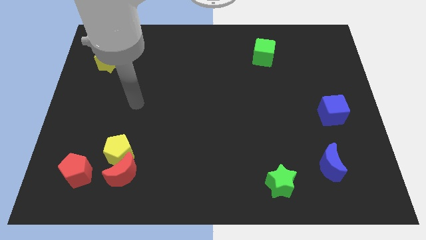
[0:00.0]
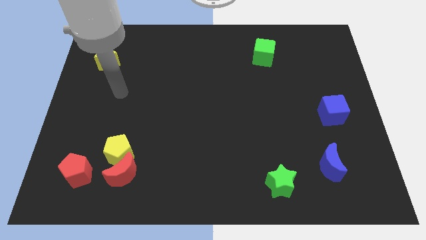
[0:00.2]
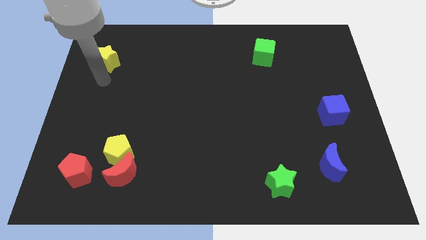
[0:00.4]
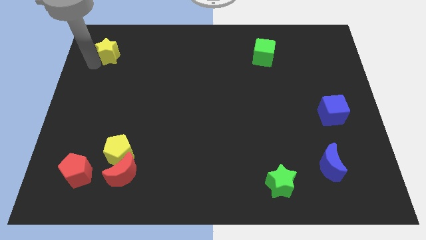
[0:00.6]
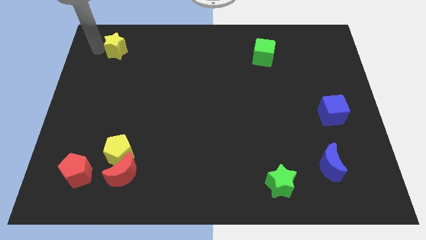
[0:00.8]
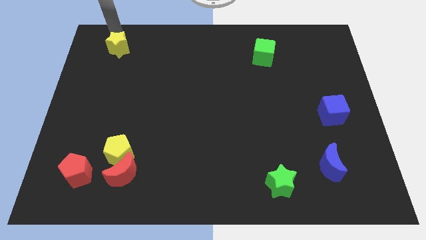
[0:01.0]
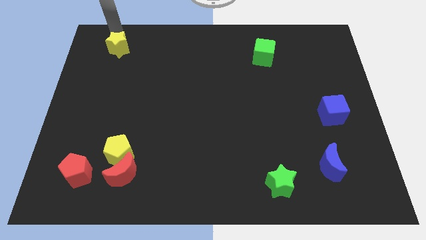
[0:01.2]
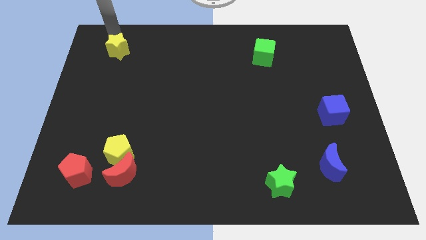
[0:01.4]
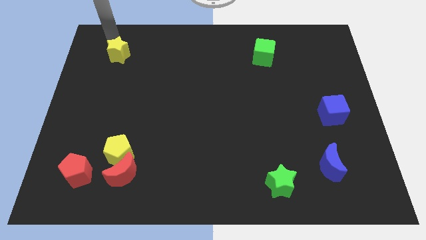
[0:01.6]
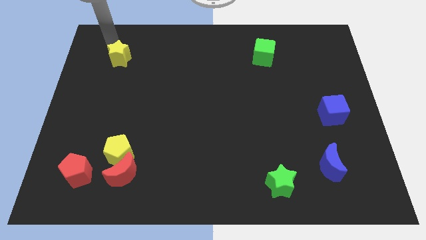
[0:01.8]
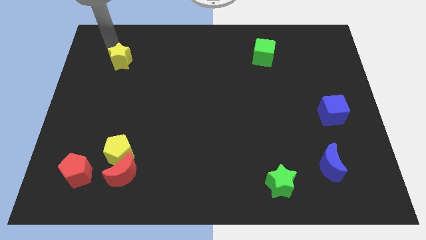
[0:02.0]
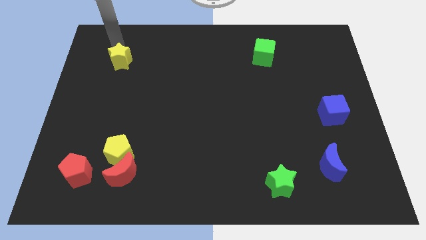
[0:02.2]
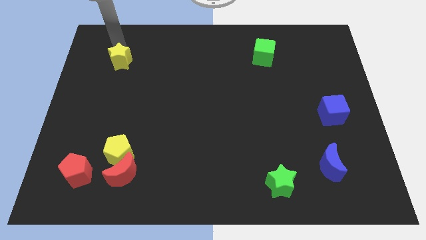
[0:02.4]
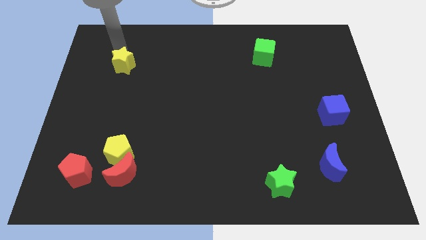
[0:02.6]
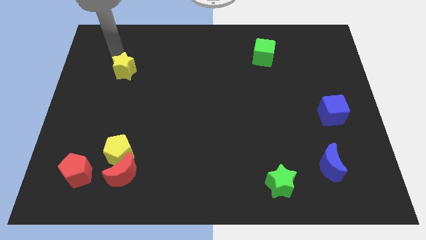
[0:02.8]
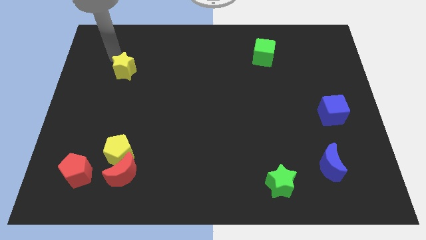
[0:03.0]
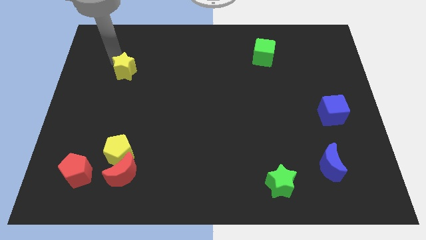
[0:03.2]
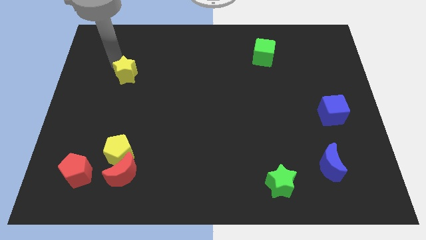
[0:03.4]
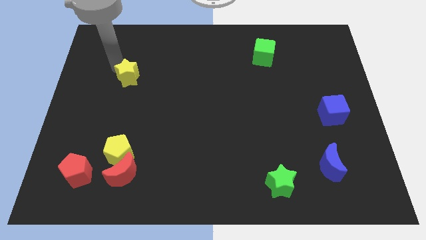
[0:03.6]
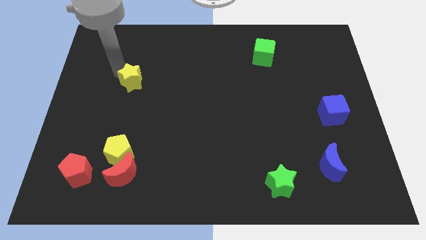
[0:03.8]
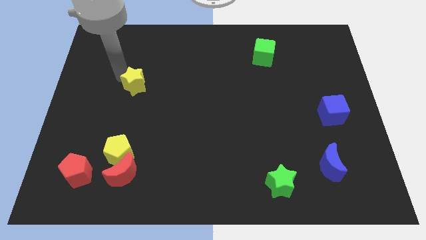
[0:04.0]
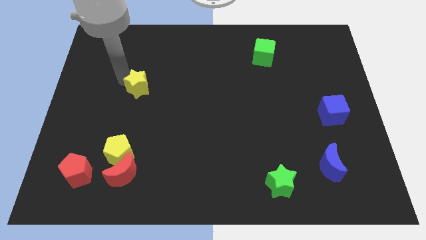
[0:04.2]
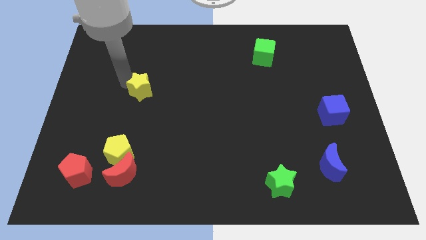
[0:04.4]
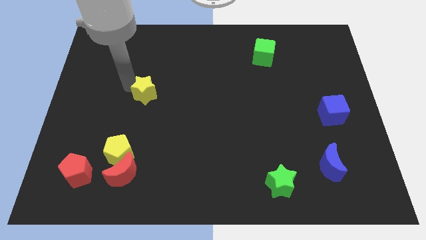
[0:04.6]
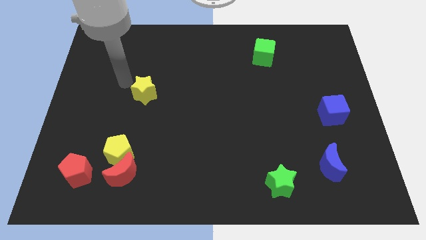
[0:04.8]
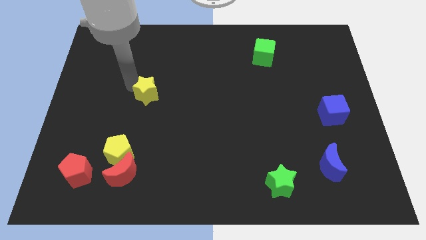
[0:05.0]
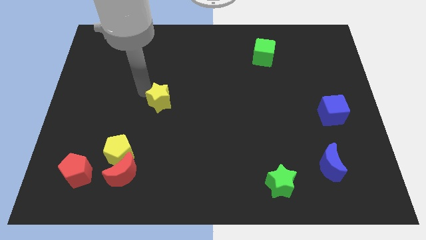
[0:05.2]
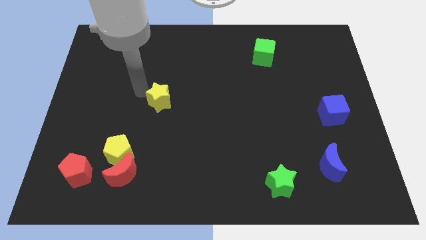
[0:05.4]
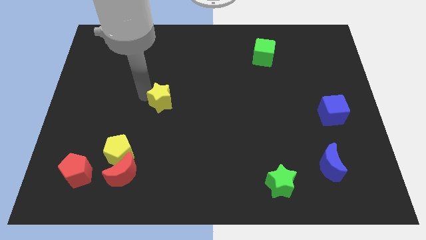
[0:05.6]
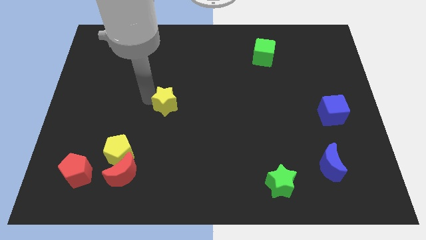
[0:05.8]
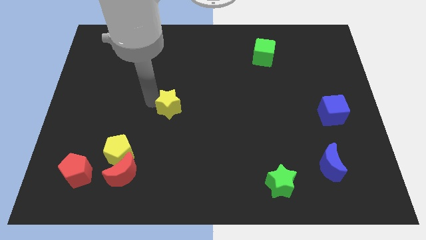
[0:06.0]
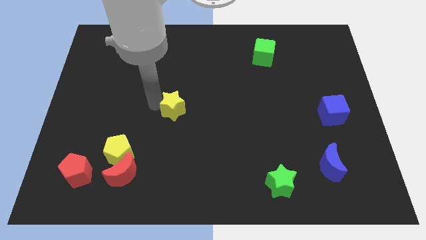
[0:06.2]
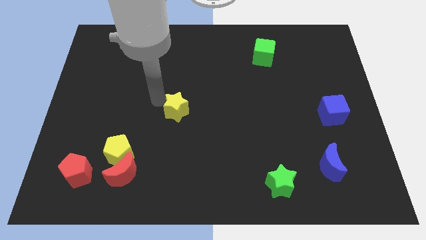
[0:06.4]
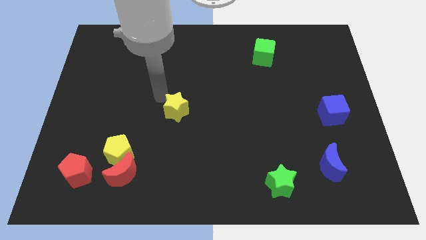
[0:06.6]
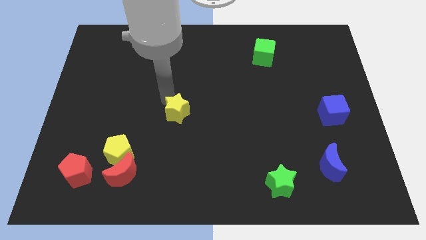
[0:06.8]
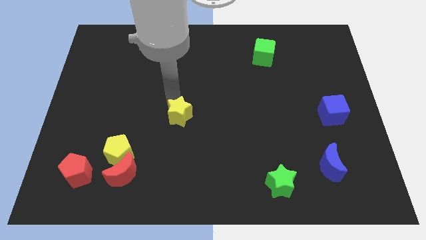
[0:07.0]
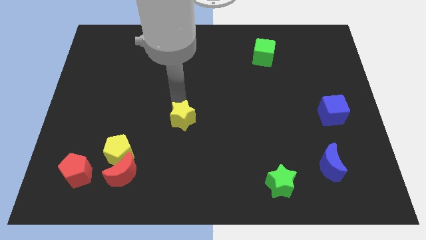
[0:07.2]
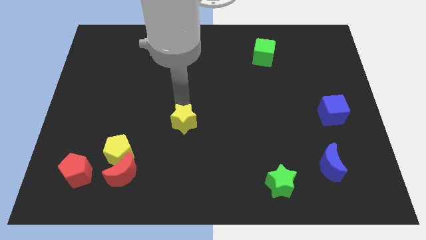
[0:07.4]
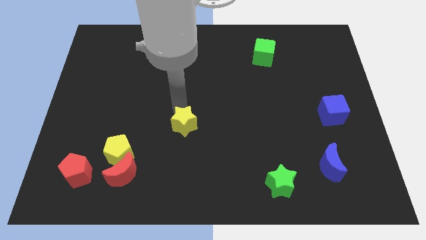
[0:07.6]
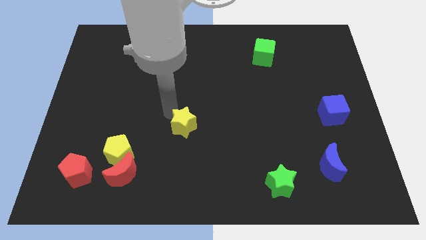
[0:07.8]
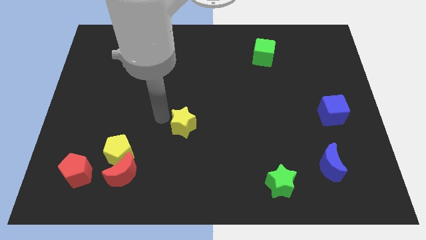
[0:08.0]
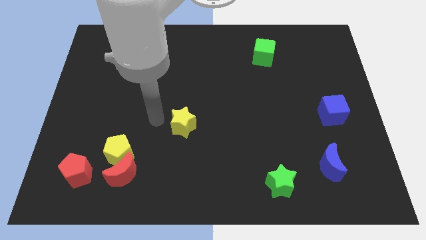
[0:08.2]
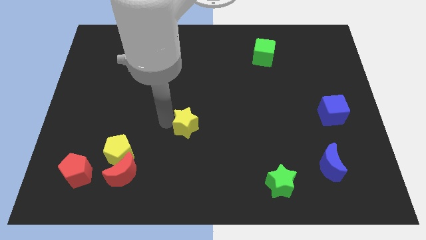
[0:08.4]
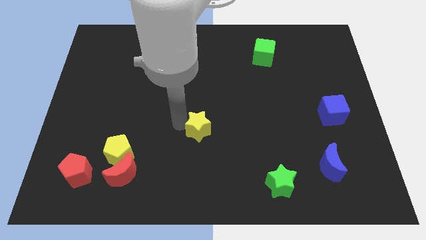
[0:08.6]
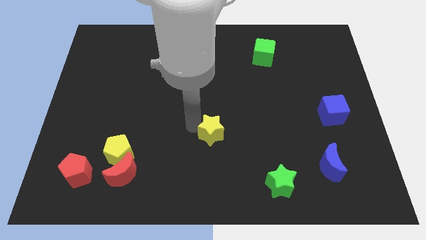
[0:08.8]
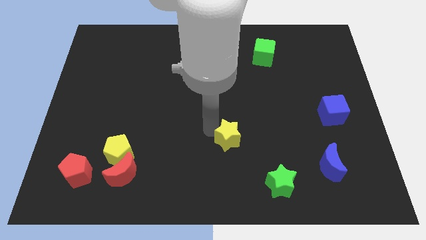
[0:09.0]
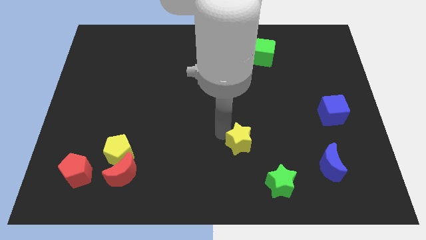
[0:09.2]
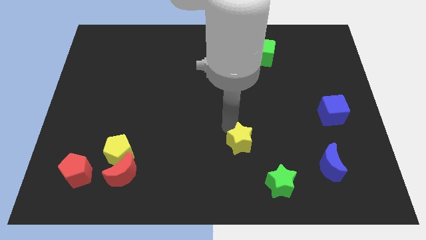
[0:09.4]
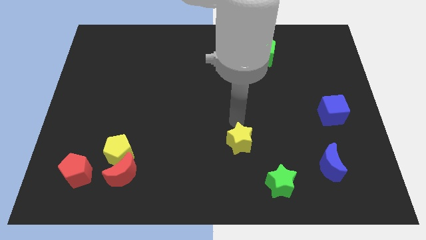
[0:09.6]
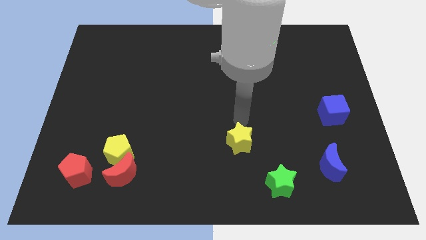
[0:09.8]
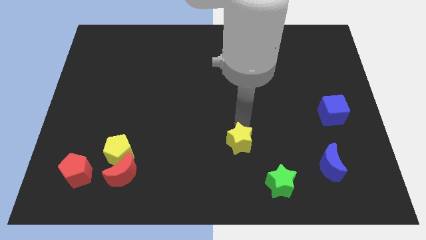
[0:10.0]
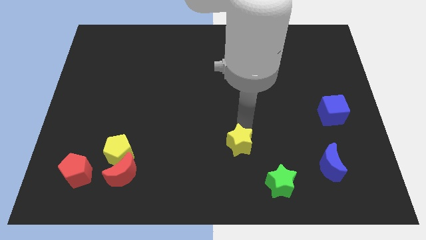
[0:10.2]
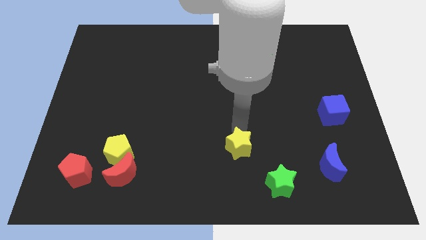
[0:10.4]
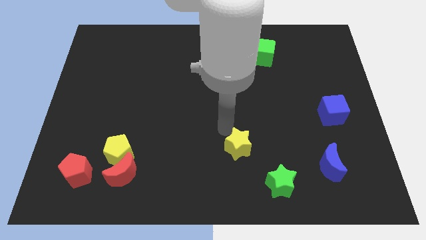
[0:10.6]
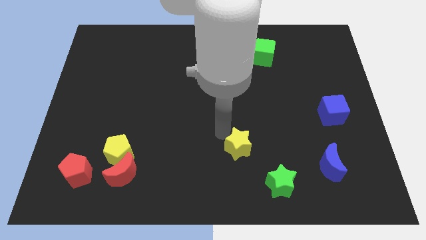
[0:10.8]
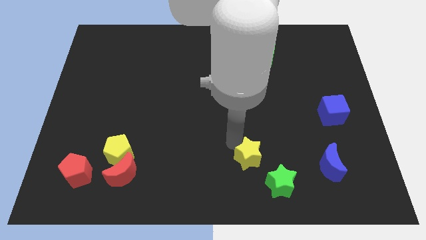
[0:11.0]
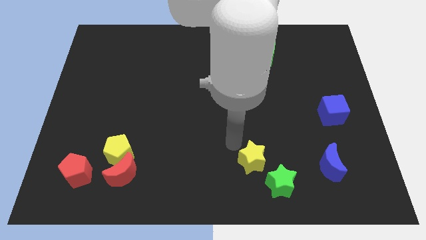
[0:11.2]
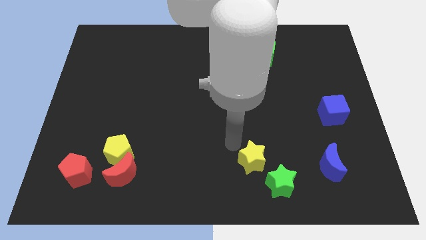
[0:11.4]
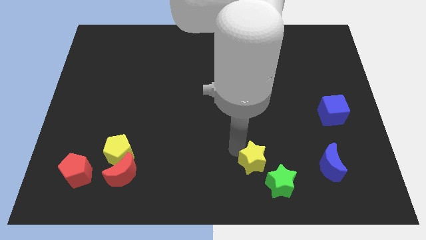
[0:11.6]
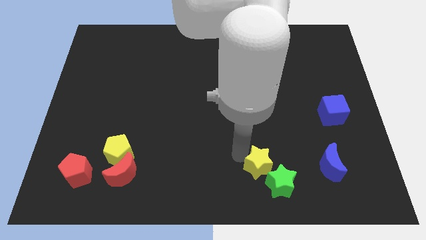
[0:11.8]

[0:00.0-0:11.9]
slide the yellow star next to the green star

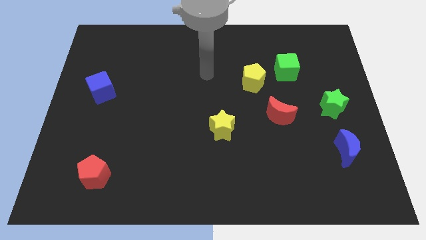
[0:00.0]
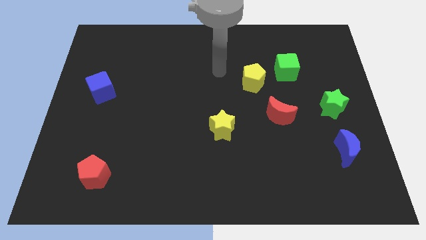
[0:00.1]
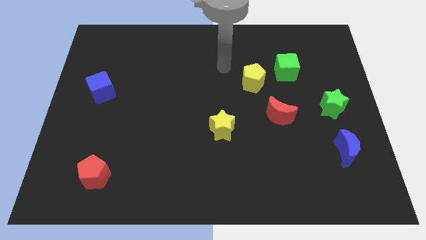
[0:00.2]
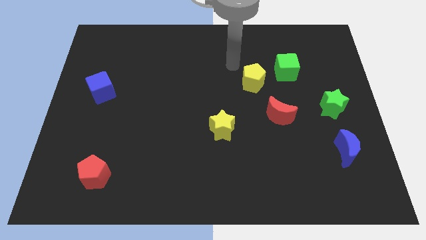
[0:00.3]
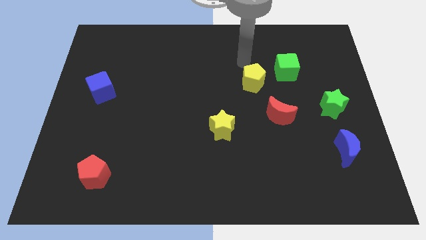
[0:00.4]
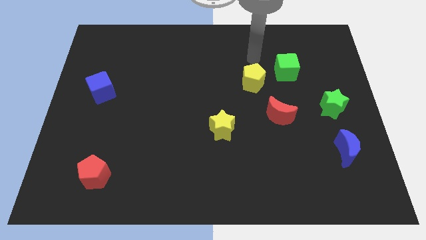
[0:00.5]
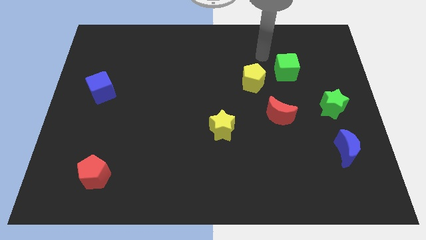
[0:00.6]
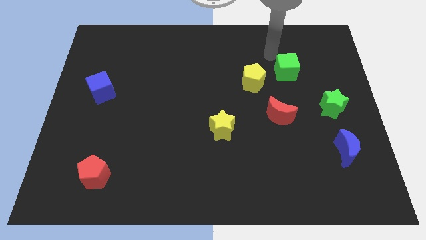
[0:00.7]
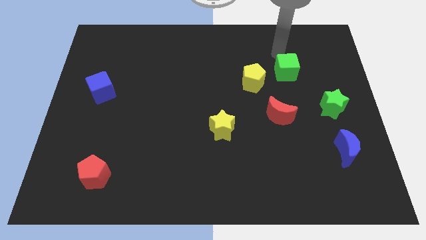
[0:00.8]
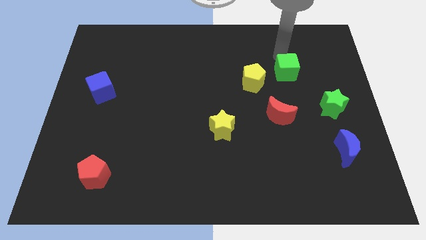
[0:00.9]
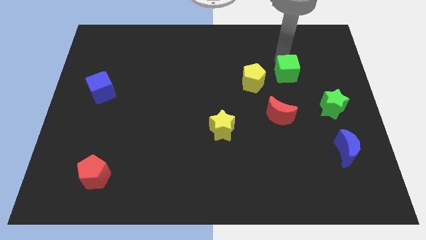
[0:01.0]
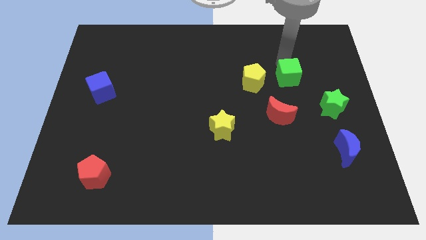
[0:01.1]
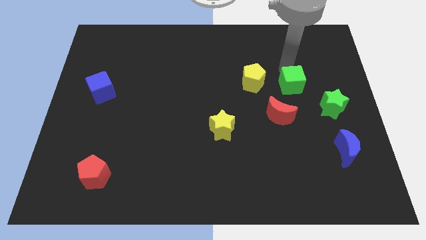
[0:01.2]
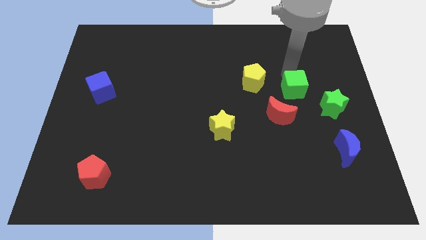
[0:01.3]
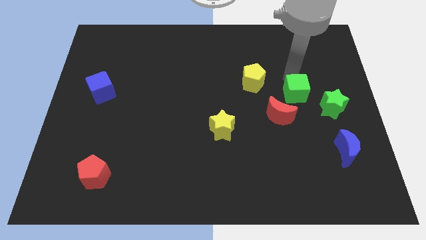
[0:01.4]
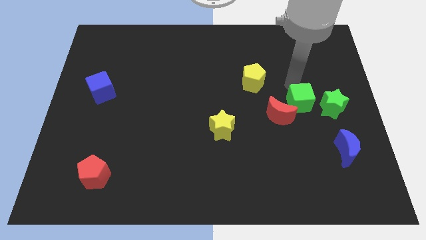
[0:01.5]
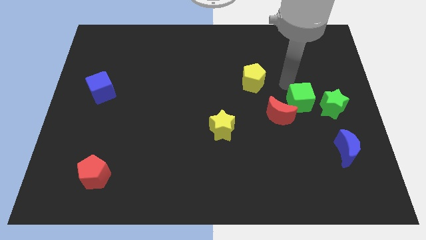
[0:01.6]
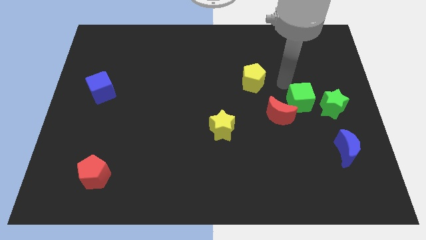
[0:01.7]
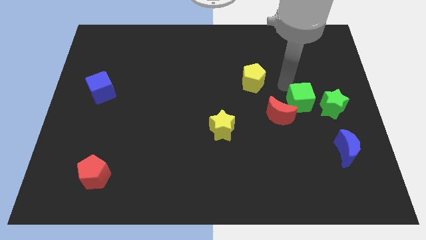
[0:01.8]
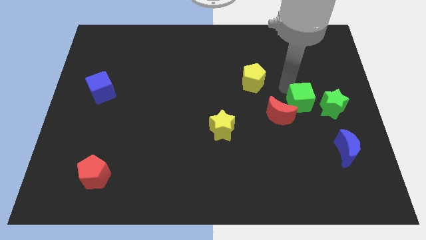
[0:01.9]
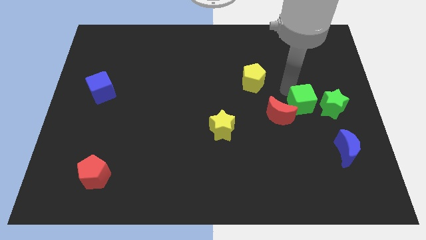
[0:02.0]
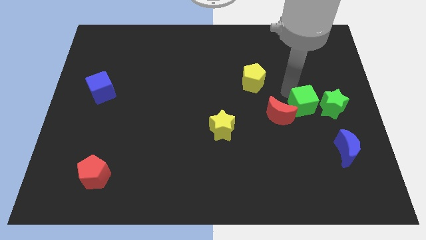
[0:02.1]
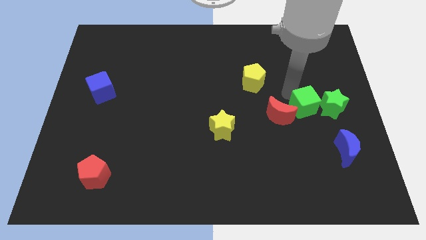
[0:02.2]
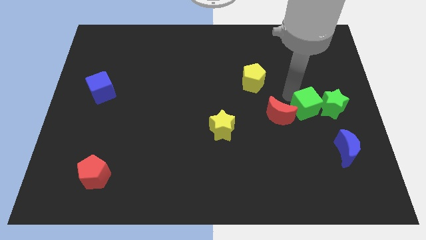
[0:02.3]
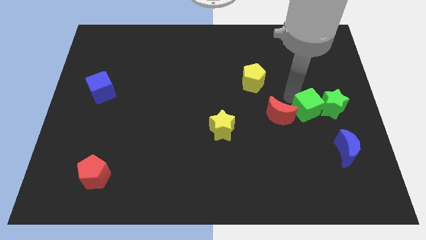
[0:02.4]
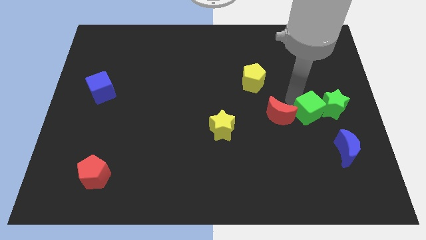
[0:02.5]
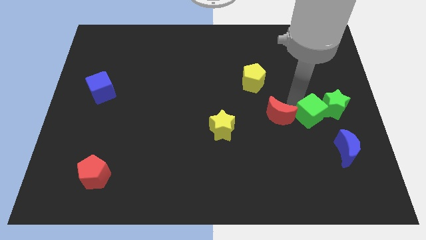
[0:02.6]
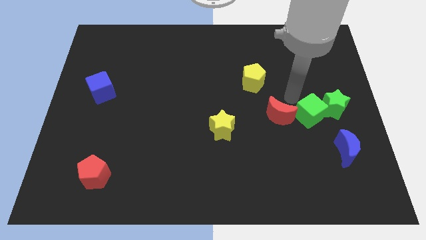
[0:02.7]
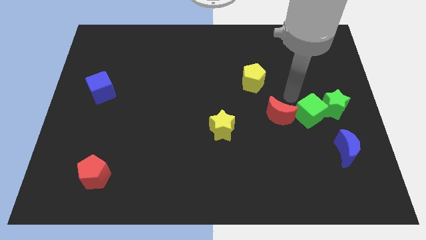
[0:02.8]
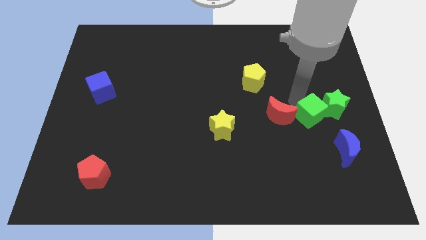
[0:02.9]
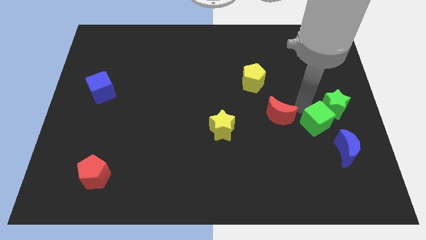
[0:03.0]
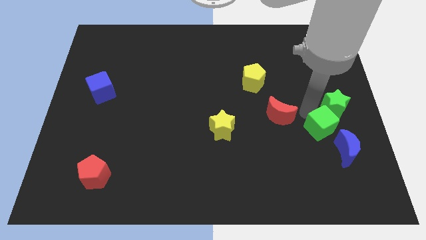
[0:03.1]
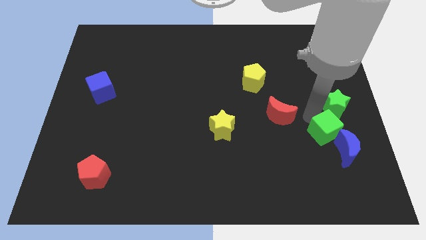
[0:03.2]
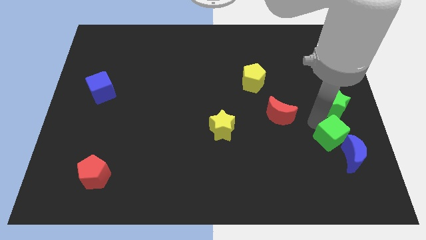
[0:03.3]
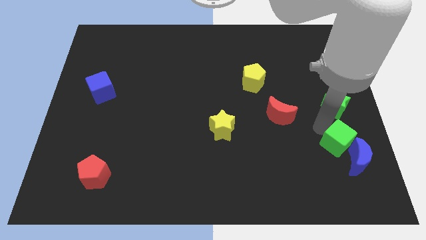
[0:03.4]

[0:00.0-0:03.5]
put the green cube to the blue moon
